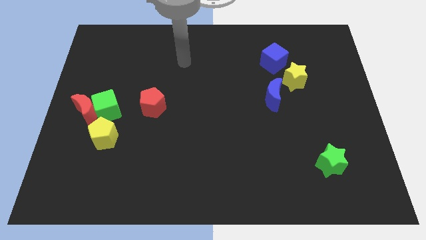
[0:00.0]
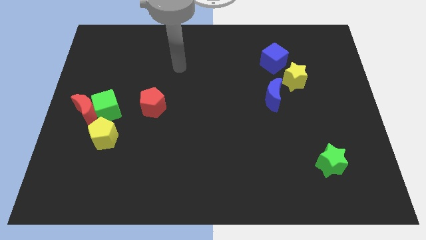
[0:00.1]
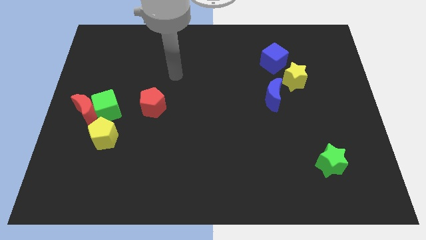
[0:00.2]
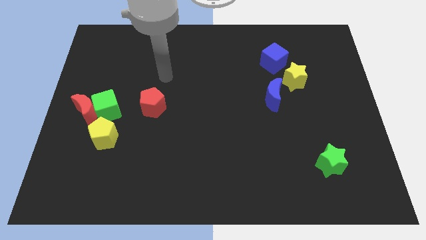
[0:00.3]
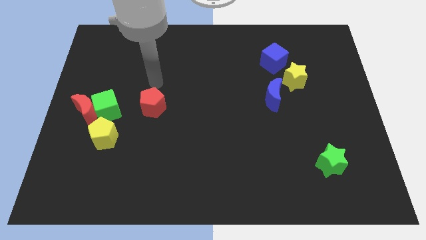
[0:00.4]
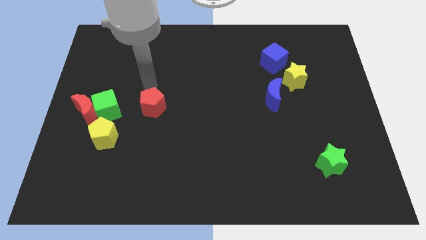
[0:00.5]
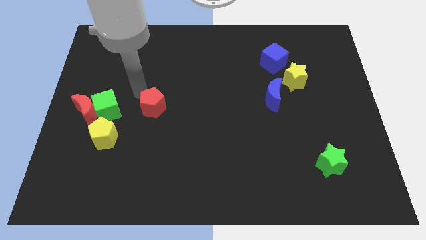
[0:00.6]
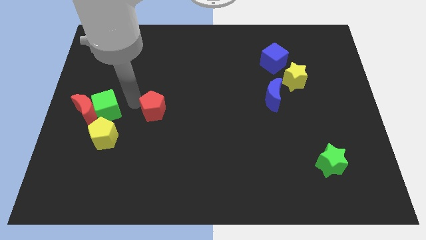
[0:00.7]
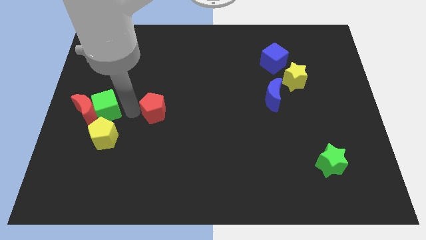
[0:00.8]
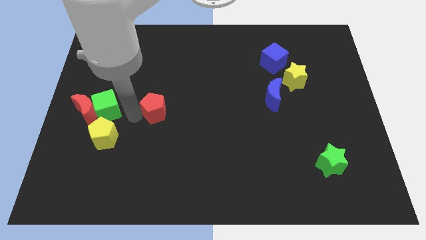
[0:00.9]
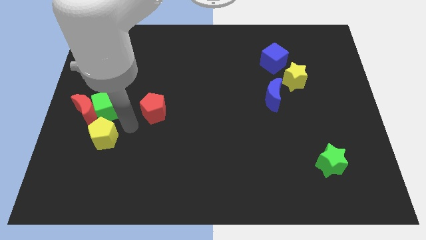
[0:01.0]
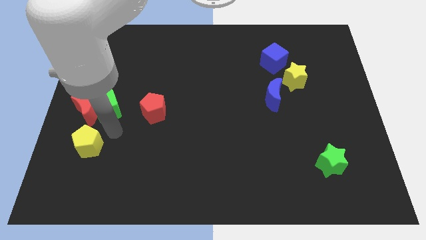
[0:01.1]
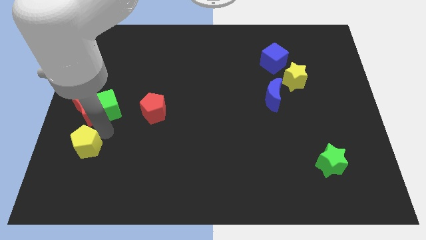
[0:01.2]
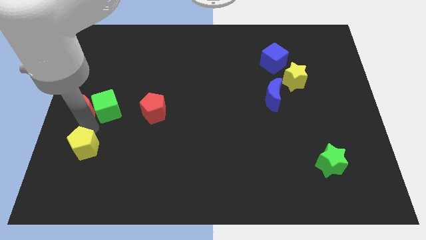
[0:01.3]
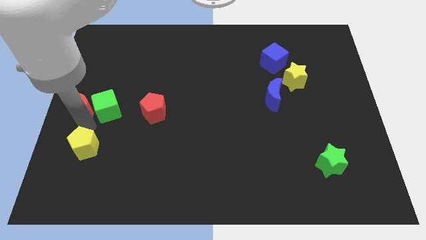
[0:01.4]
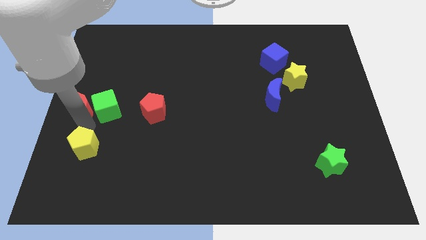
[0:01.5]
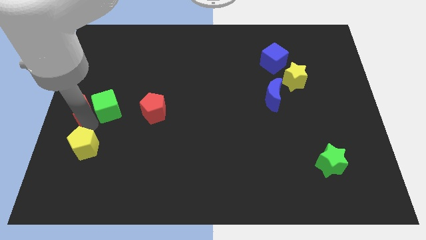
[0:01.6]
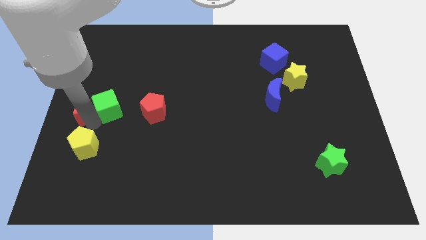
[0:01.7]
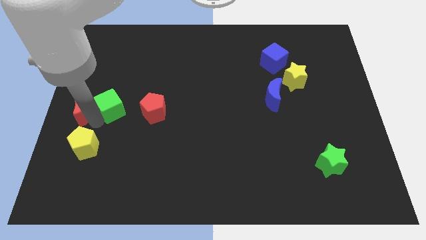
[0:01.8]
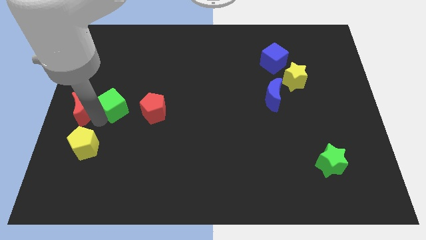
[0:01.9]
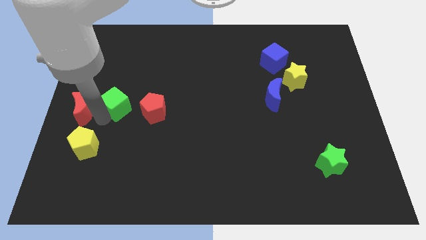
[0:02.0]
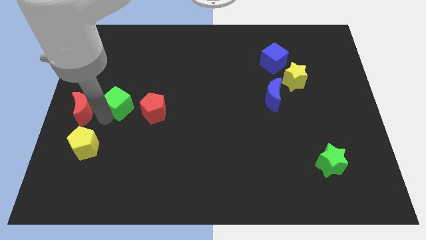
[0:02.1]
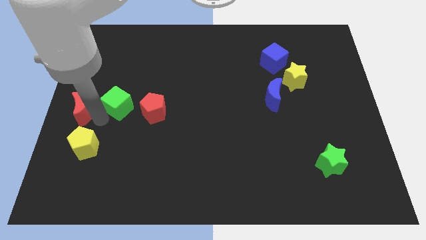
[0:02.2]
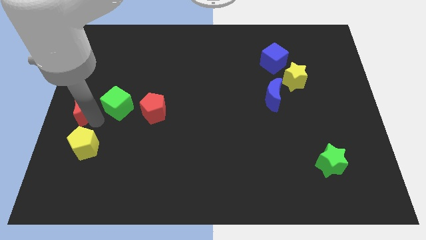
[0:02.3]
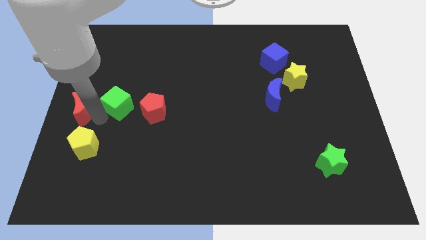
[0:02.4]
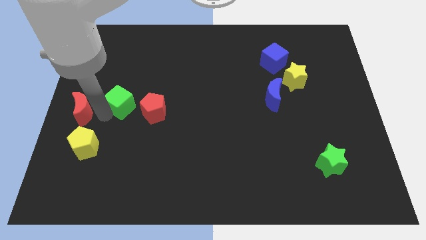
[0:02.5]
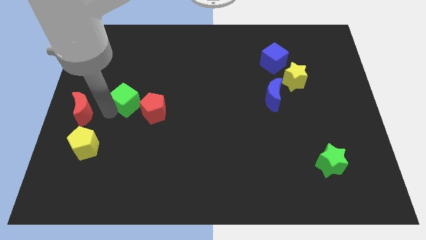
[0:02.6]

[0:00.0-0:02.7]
pull the green cube apart from the red moon and yellow pentagon

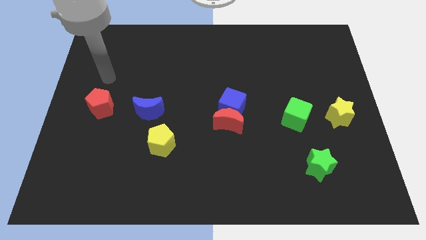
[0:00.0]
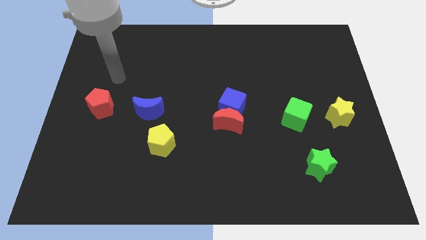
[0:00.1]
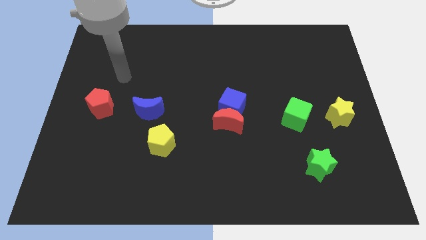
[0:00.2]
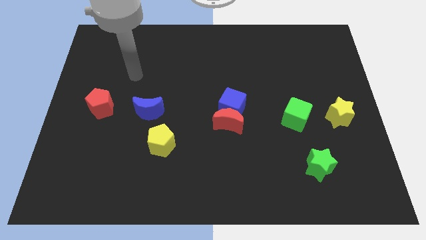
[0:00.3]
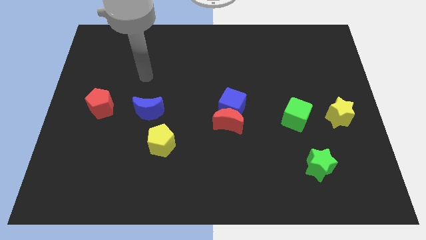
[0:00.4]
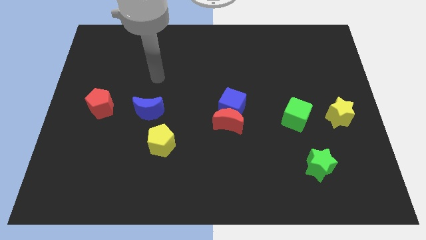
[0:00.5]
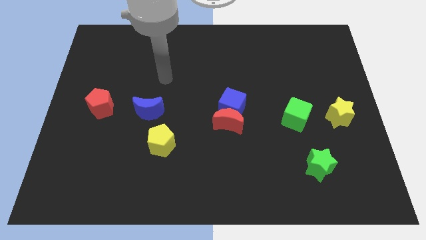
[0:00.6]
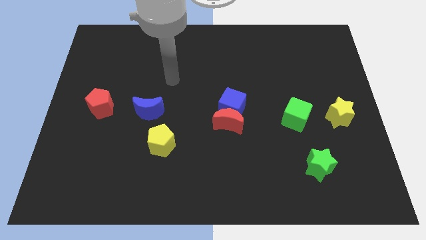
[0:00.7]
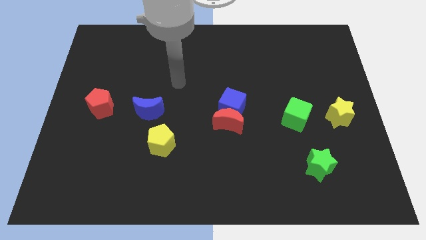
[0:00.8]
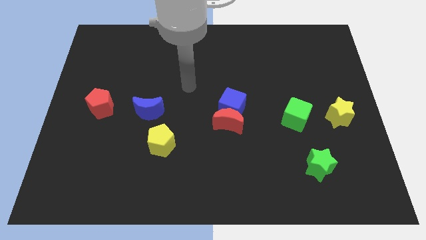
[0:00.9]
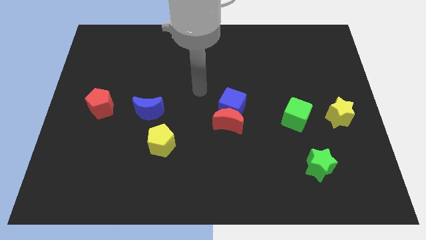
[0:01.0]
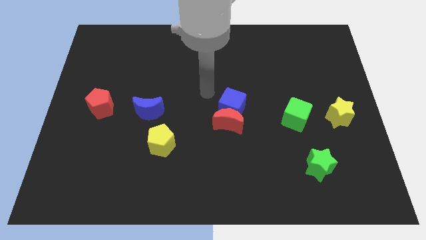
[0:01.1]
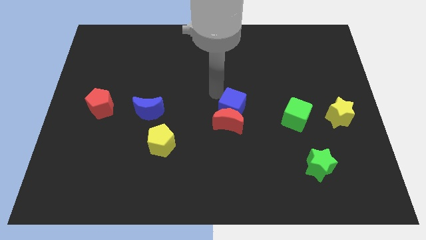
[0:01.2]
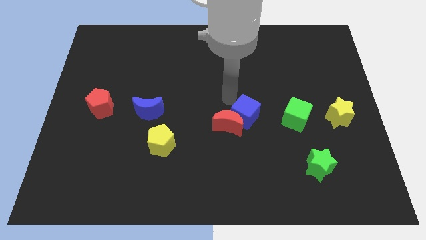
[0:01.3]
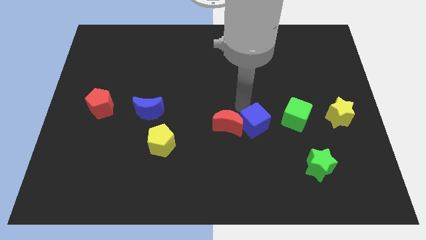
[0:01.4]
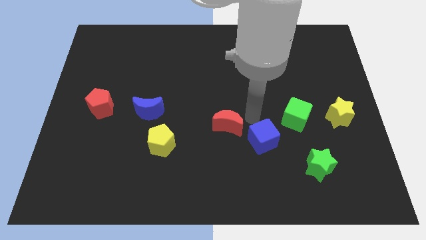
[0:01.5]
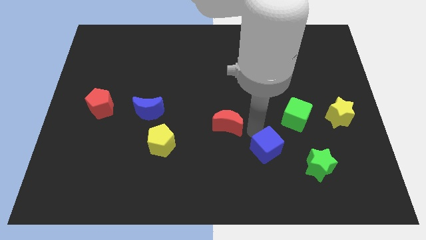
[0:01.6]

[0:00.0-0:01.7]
separate the red moon from the blue cube

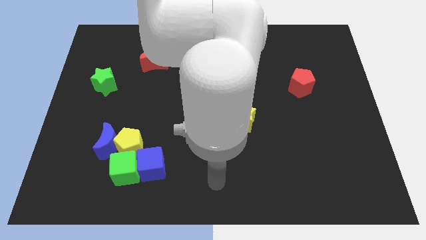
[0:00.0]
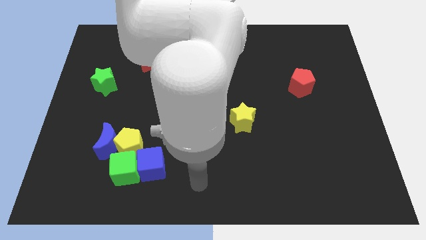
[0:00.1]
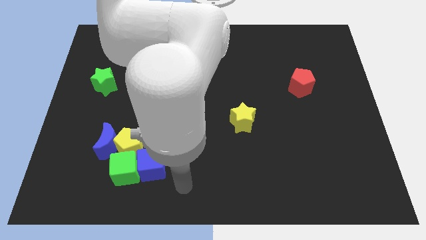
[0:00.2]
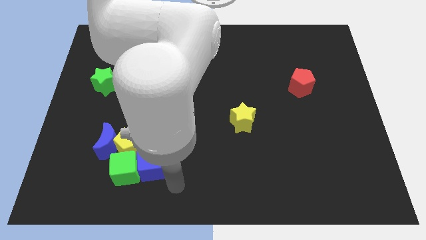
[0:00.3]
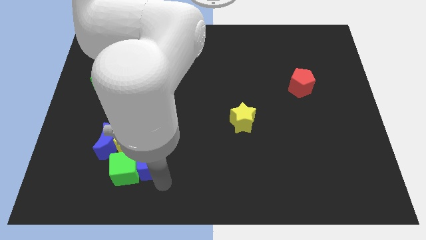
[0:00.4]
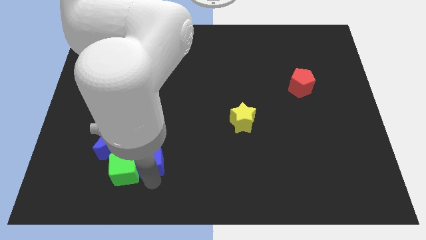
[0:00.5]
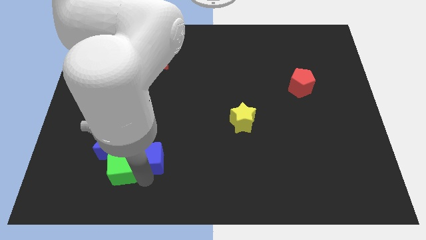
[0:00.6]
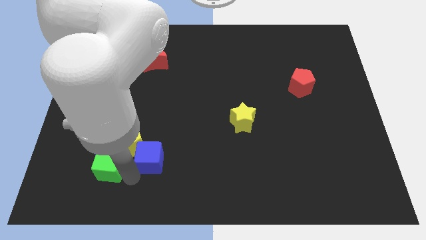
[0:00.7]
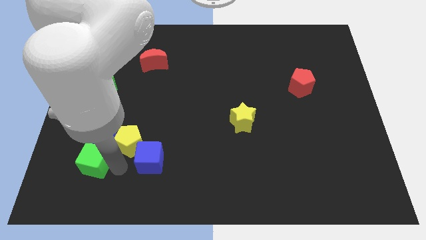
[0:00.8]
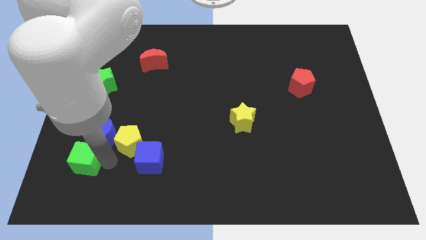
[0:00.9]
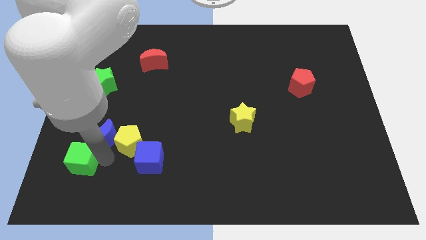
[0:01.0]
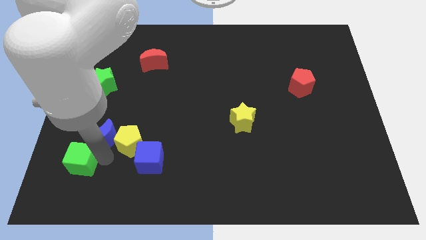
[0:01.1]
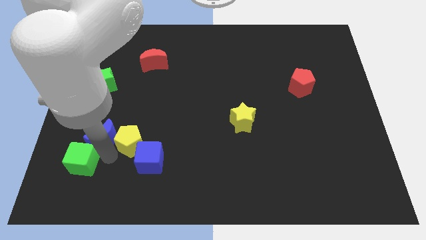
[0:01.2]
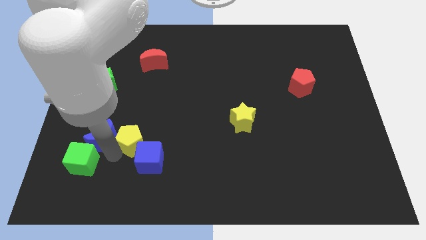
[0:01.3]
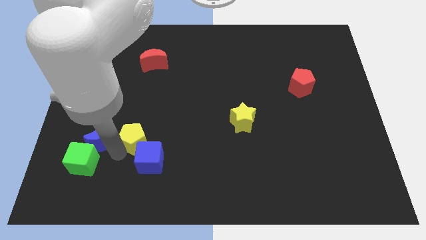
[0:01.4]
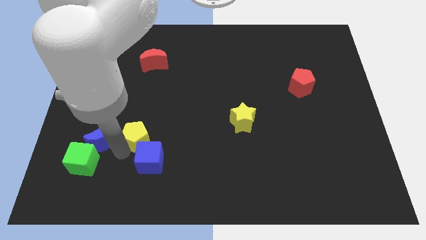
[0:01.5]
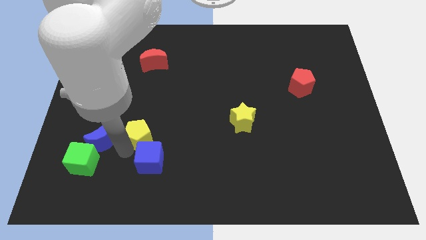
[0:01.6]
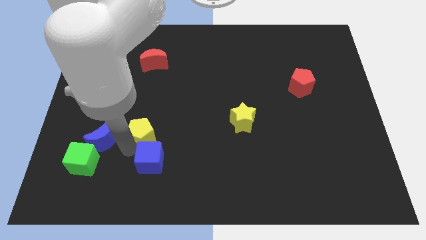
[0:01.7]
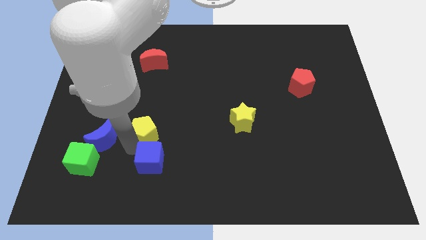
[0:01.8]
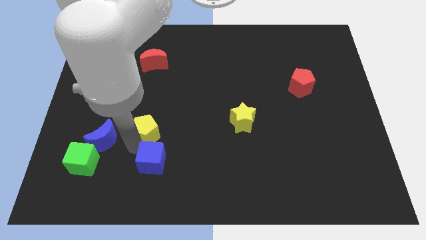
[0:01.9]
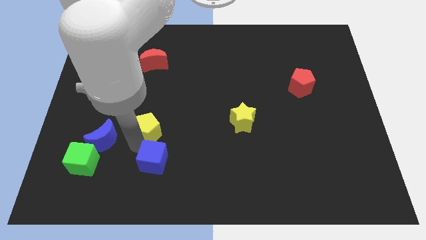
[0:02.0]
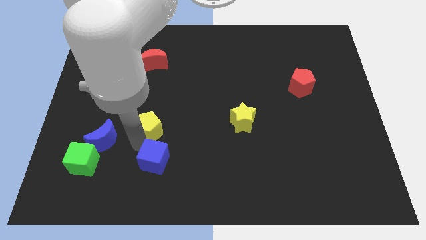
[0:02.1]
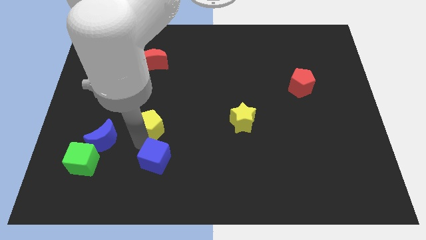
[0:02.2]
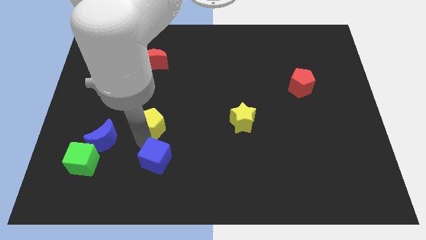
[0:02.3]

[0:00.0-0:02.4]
separate the yellow pentagon from the blue moon, green cube, and blue cube

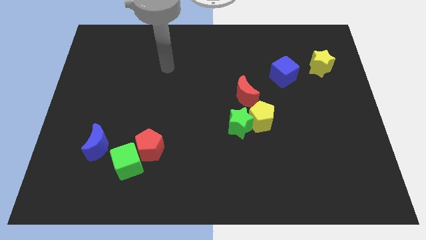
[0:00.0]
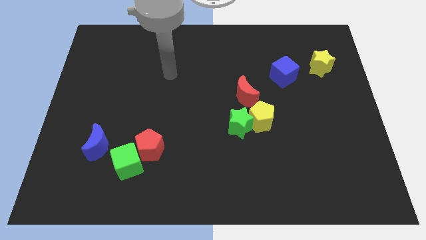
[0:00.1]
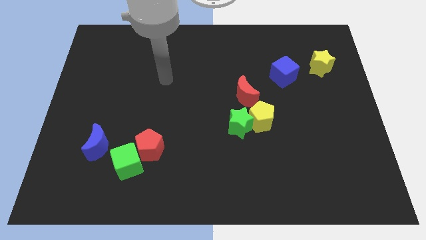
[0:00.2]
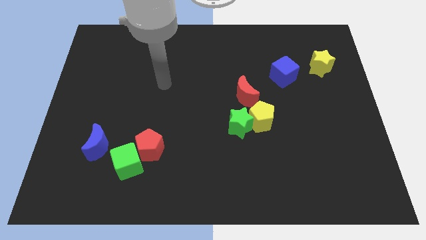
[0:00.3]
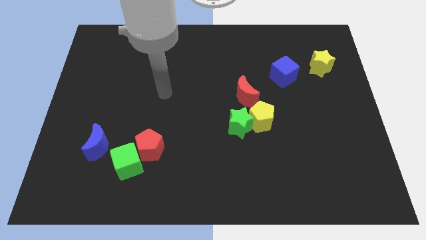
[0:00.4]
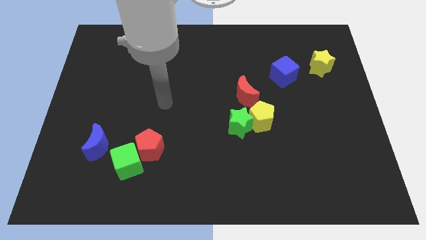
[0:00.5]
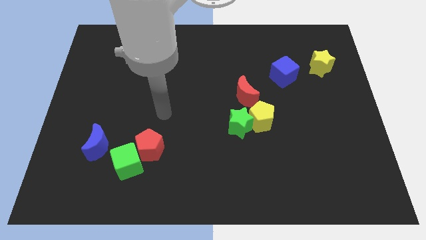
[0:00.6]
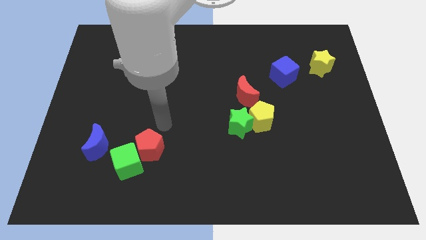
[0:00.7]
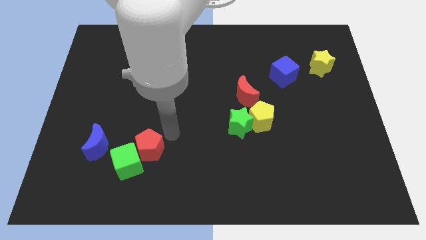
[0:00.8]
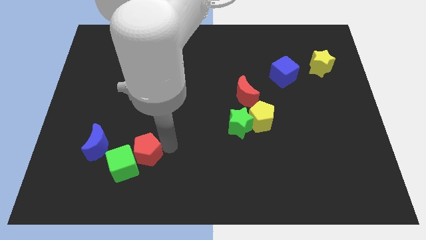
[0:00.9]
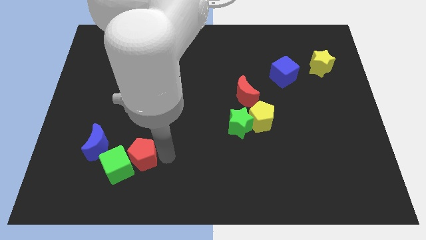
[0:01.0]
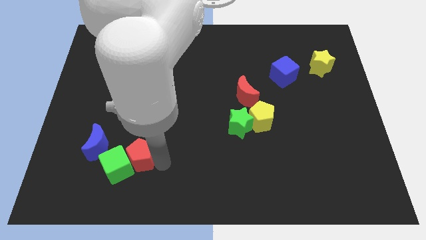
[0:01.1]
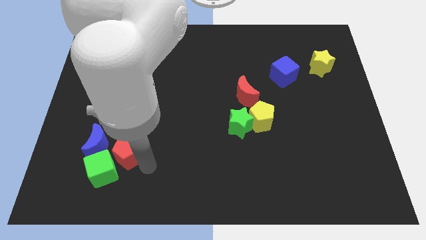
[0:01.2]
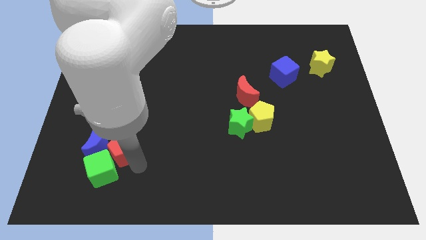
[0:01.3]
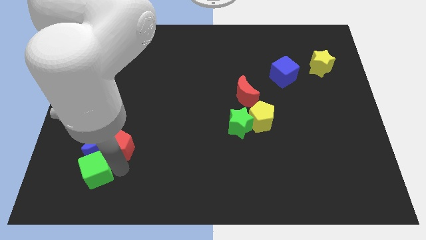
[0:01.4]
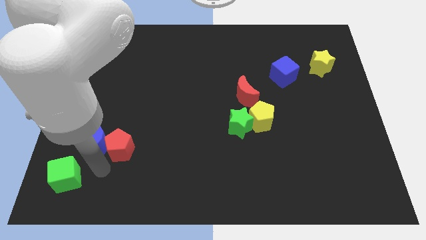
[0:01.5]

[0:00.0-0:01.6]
separate the red pentagon from the green cube

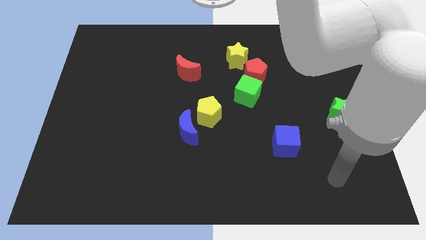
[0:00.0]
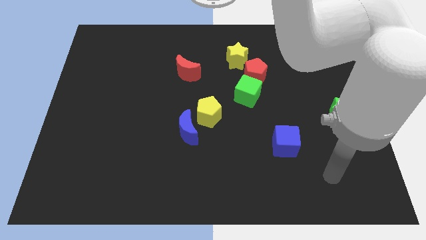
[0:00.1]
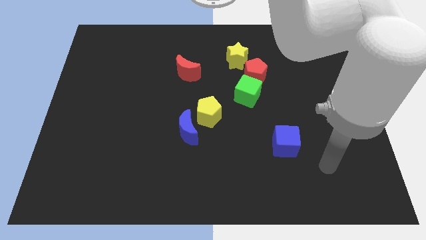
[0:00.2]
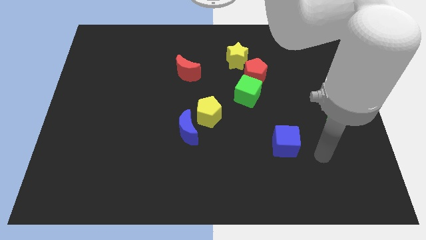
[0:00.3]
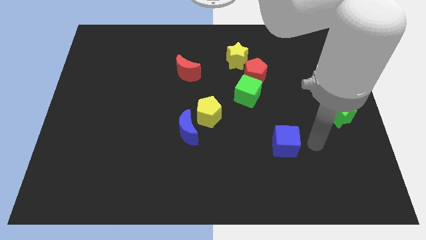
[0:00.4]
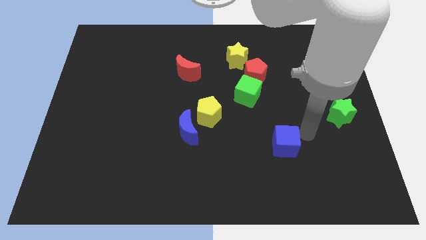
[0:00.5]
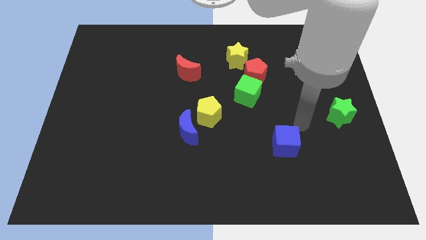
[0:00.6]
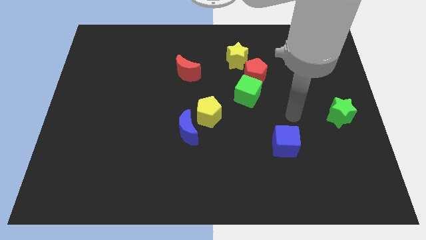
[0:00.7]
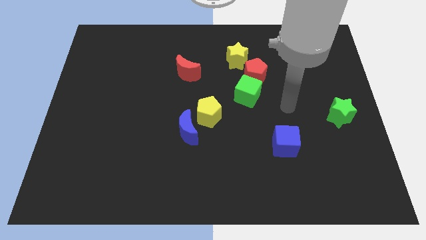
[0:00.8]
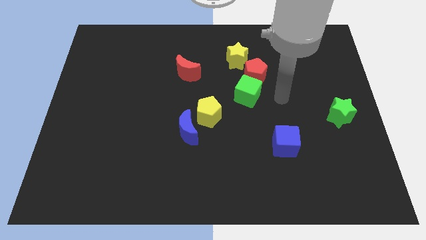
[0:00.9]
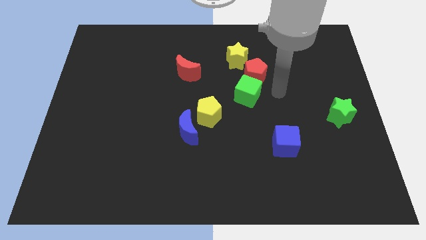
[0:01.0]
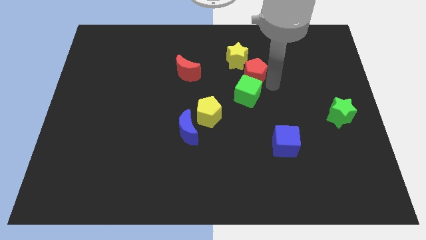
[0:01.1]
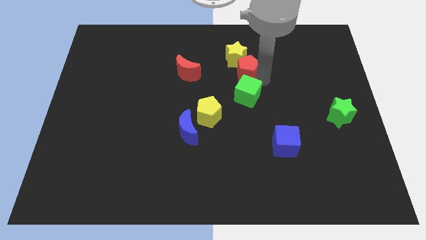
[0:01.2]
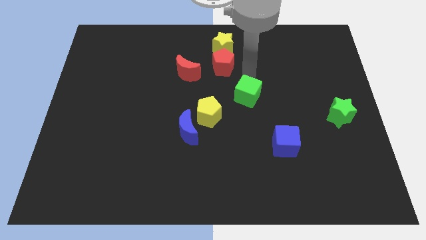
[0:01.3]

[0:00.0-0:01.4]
move the green cube away from the red pentagon
